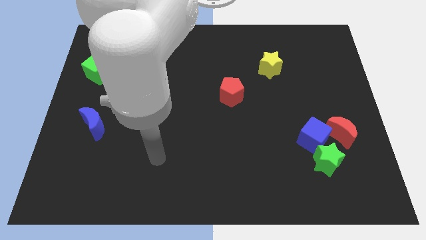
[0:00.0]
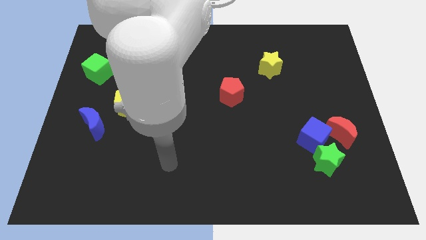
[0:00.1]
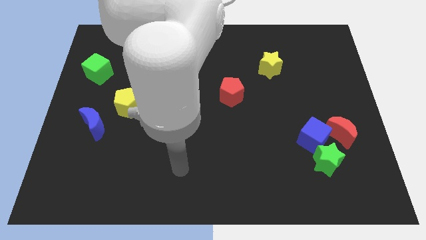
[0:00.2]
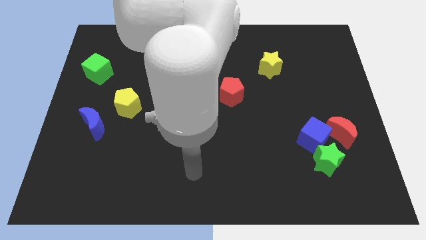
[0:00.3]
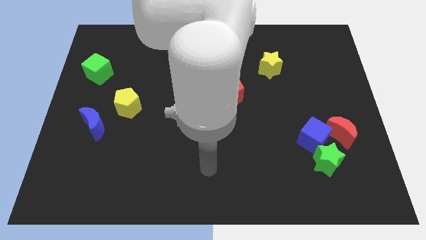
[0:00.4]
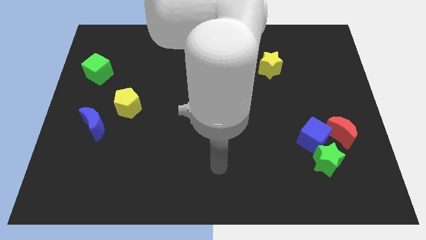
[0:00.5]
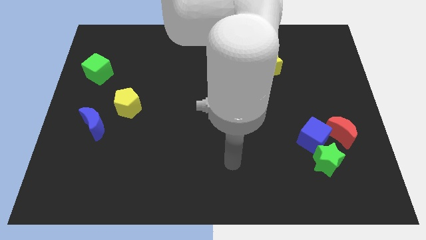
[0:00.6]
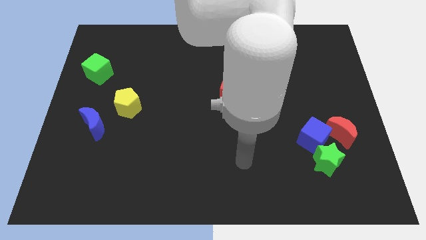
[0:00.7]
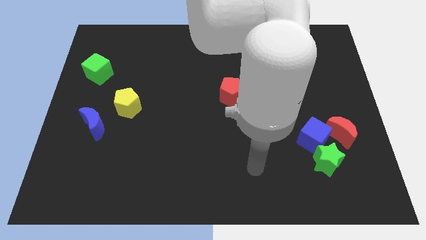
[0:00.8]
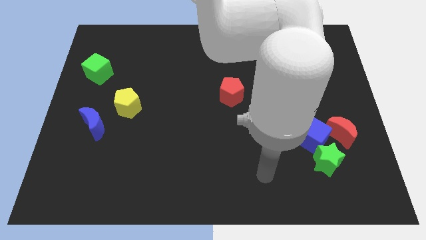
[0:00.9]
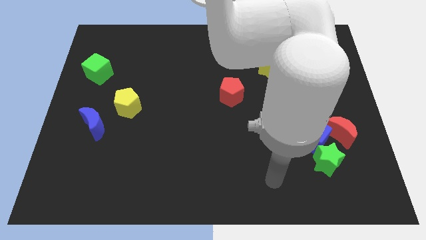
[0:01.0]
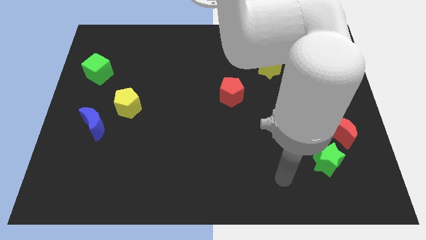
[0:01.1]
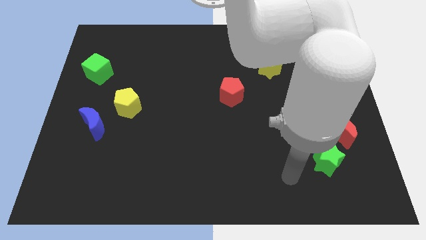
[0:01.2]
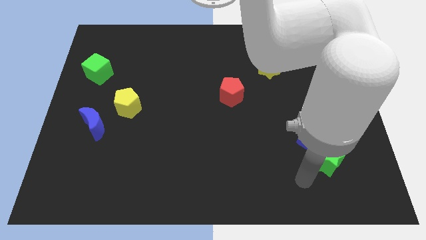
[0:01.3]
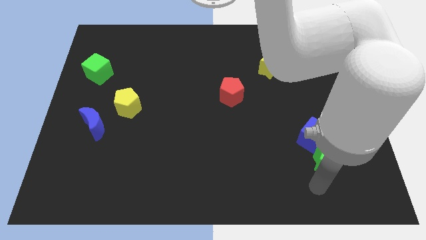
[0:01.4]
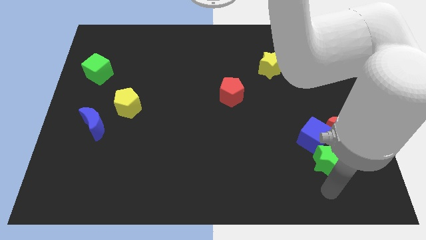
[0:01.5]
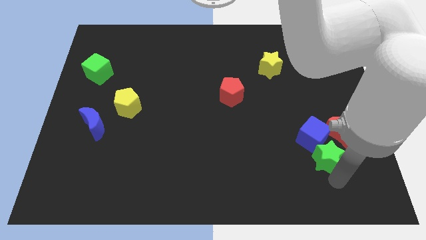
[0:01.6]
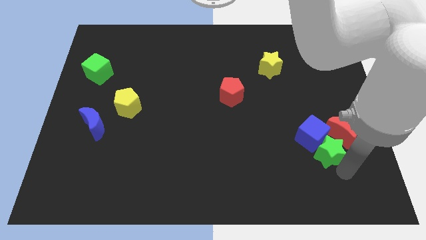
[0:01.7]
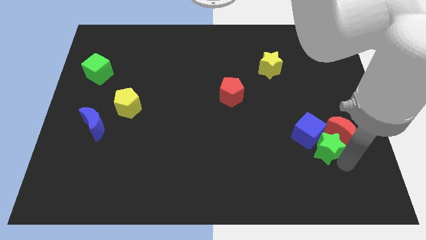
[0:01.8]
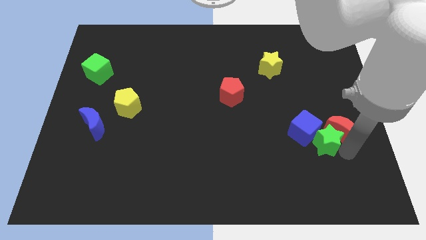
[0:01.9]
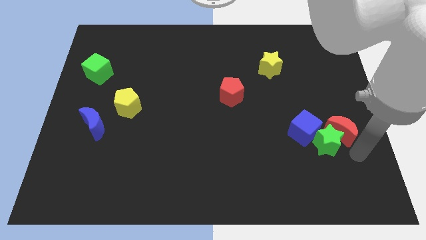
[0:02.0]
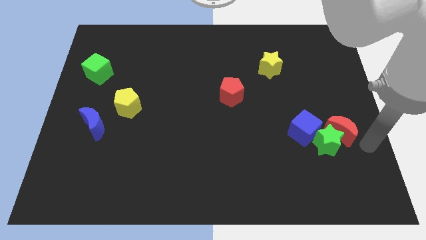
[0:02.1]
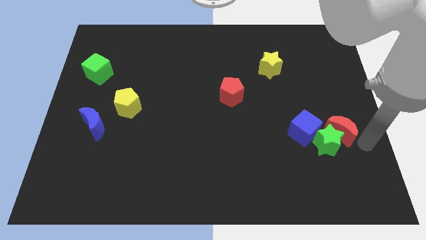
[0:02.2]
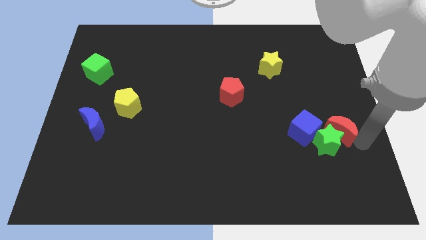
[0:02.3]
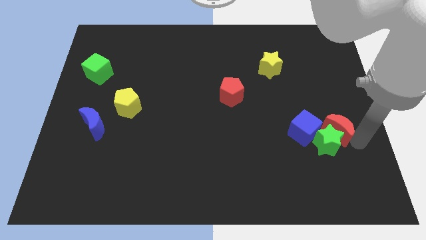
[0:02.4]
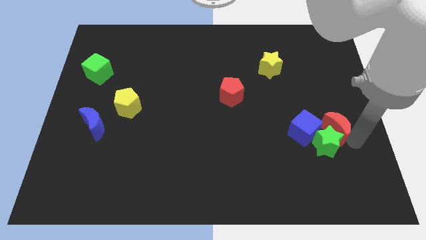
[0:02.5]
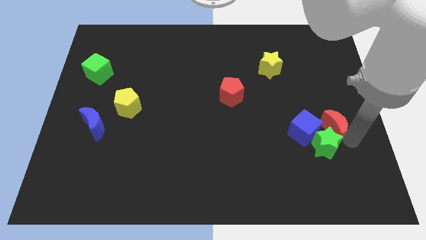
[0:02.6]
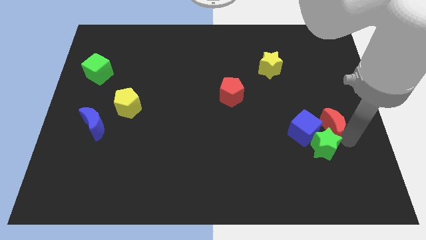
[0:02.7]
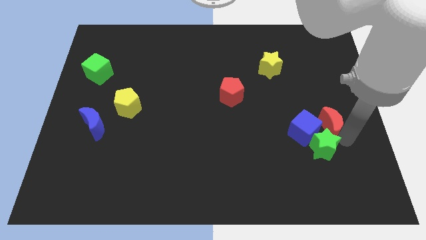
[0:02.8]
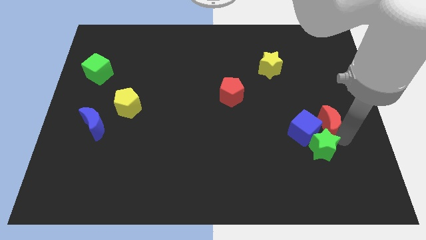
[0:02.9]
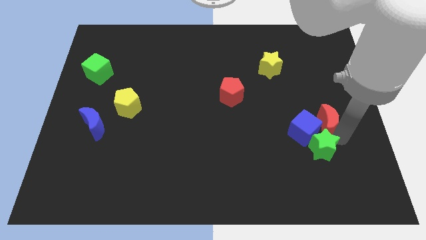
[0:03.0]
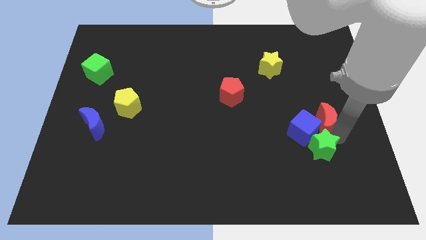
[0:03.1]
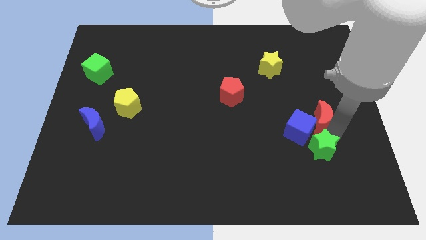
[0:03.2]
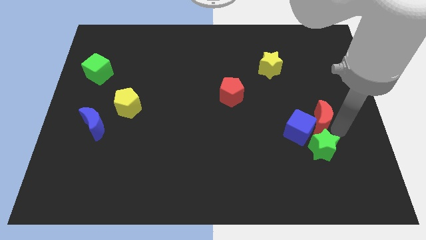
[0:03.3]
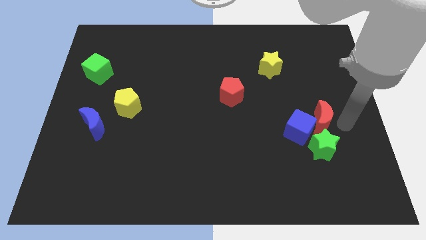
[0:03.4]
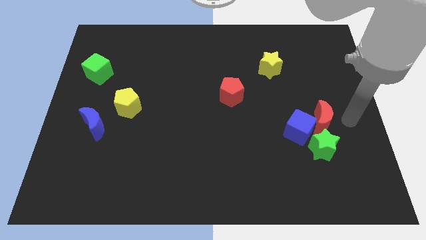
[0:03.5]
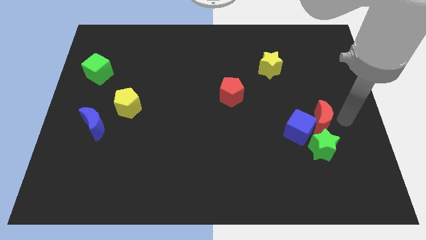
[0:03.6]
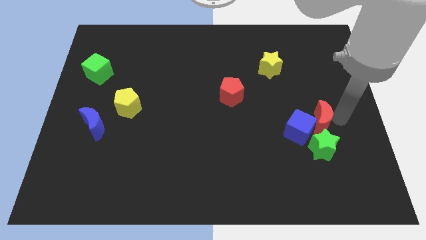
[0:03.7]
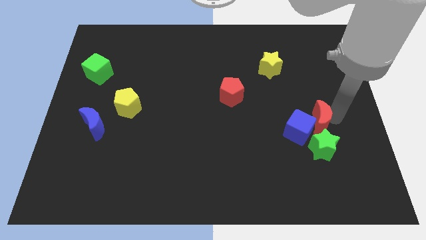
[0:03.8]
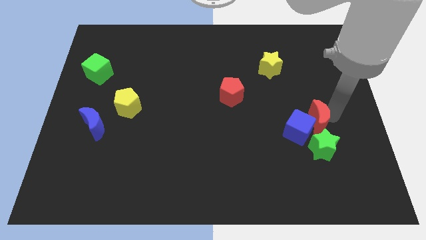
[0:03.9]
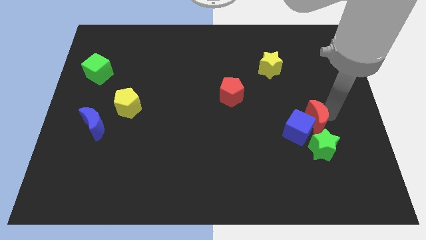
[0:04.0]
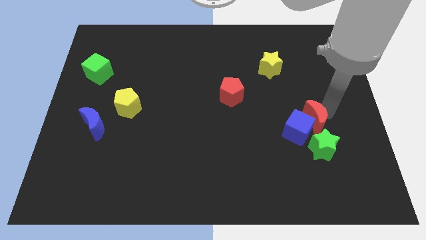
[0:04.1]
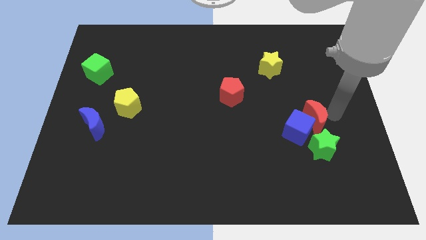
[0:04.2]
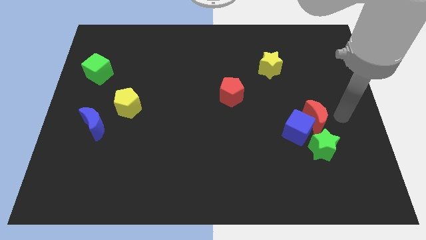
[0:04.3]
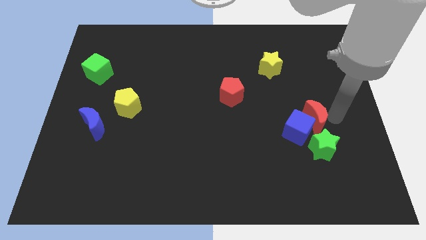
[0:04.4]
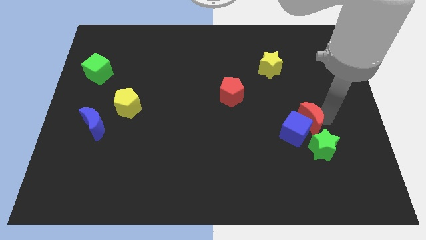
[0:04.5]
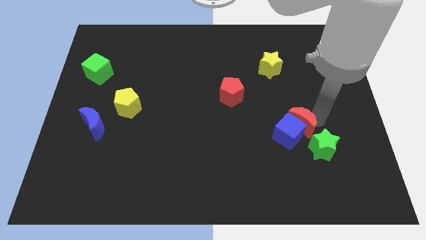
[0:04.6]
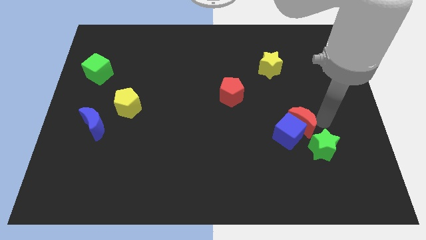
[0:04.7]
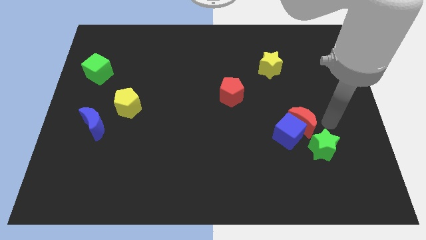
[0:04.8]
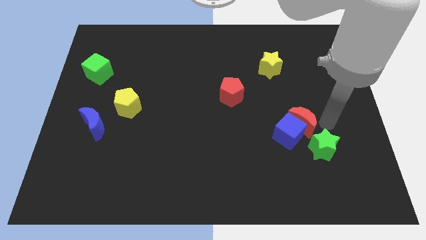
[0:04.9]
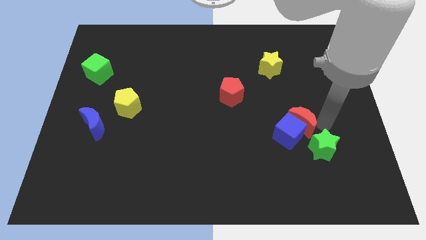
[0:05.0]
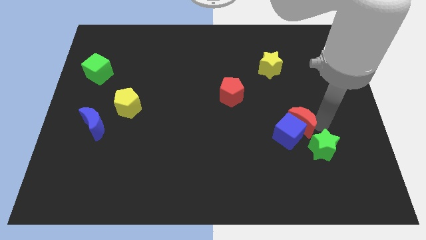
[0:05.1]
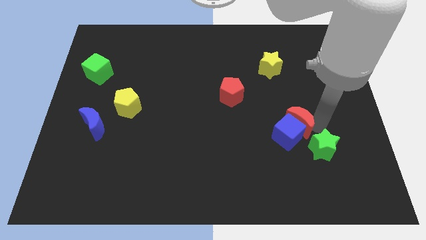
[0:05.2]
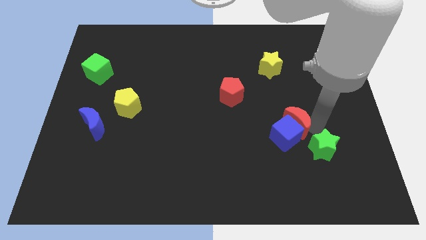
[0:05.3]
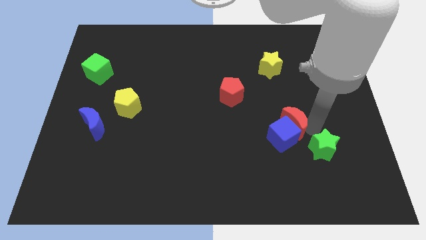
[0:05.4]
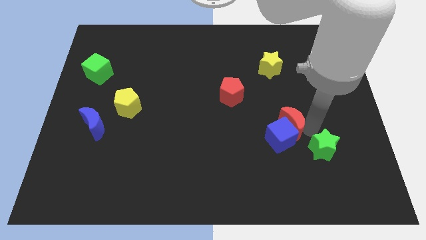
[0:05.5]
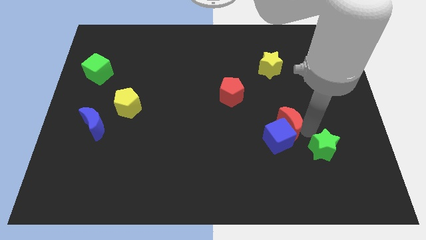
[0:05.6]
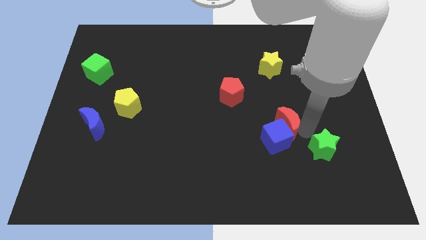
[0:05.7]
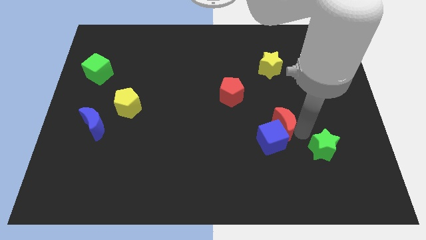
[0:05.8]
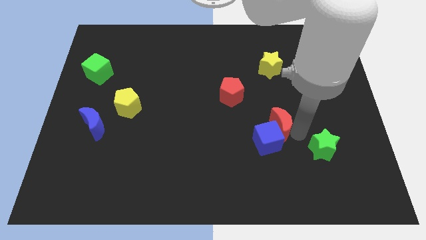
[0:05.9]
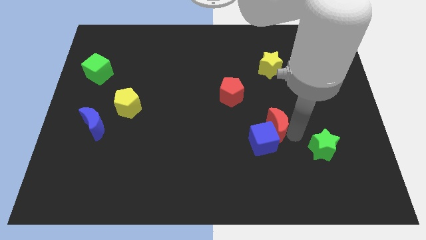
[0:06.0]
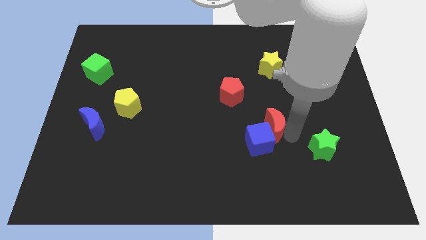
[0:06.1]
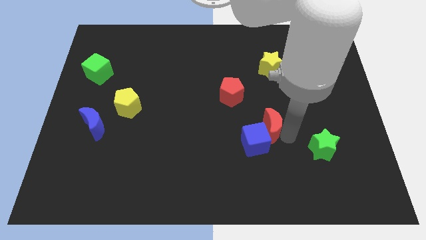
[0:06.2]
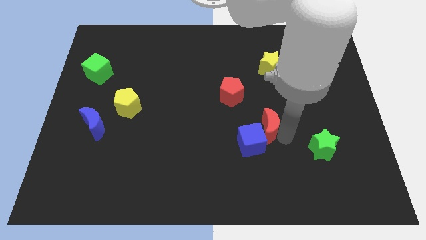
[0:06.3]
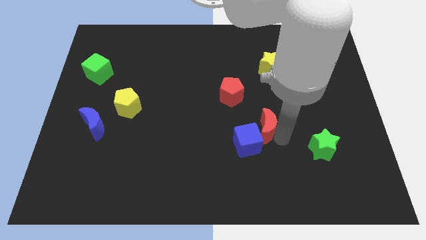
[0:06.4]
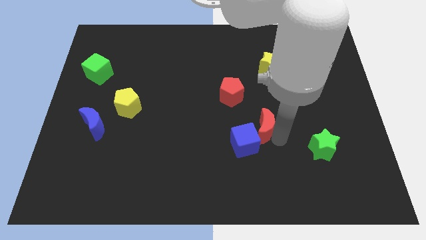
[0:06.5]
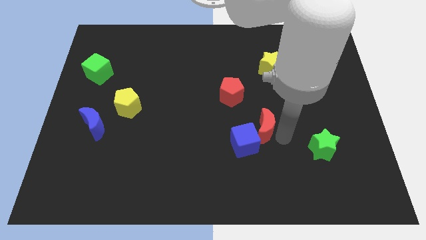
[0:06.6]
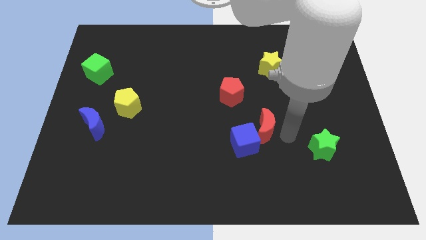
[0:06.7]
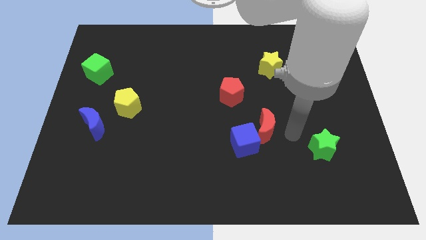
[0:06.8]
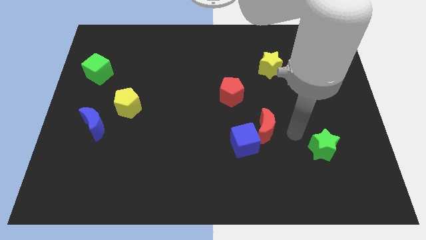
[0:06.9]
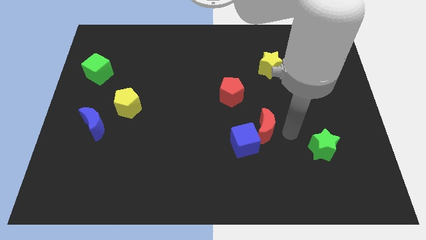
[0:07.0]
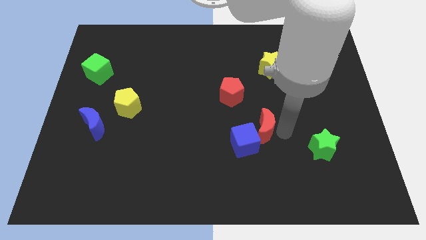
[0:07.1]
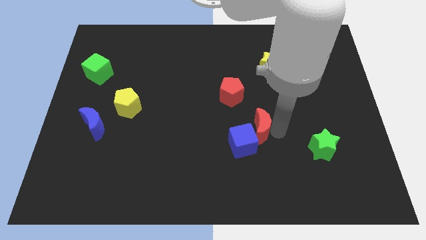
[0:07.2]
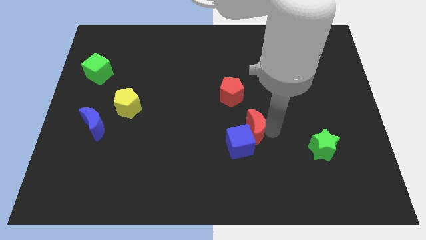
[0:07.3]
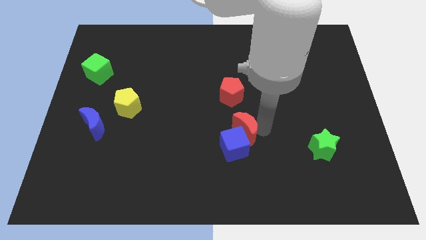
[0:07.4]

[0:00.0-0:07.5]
move the red moon to the left

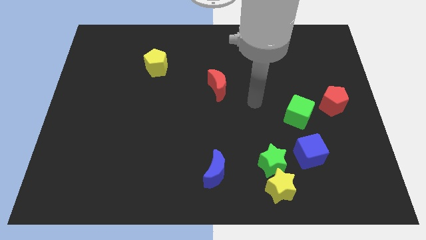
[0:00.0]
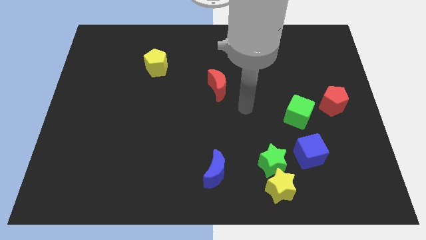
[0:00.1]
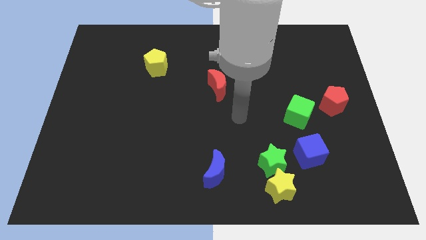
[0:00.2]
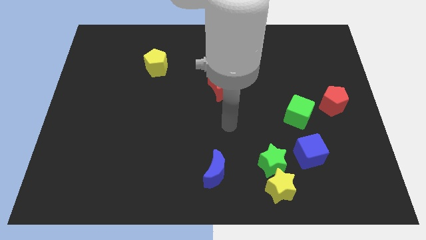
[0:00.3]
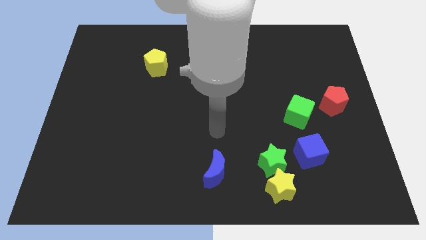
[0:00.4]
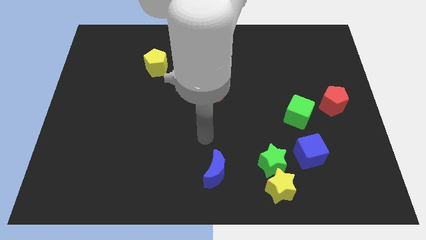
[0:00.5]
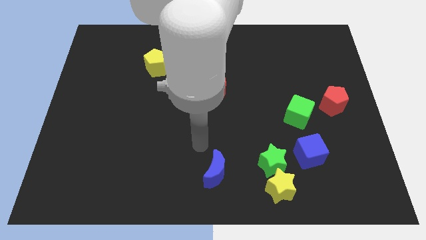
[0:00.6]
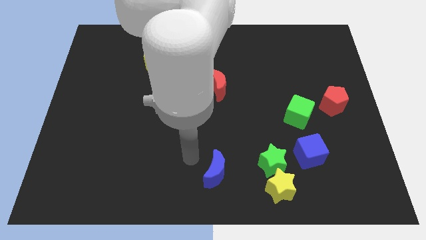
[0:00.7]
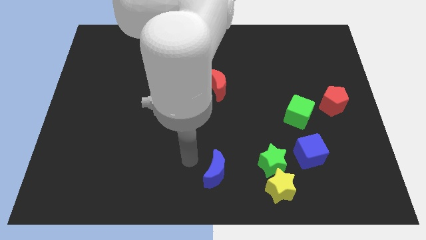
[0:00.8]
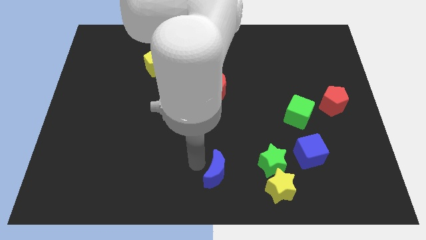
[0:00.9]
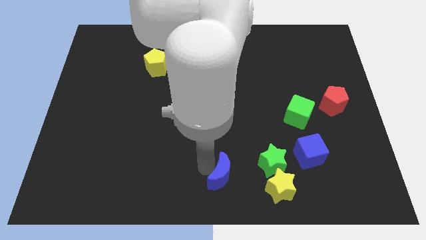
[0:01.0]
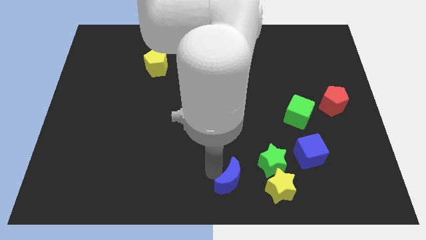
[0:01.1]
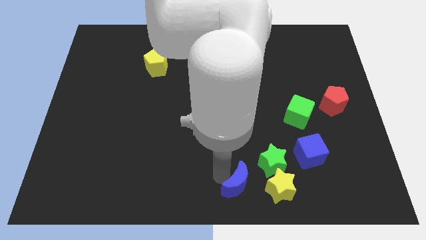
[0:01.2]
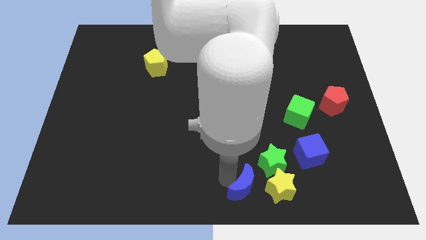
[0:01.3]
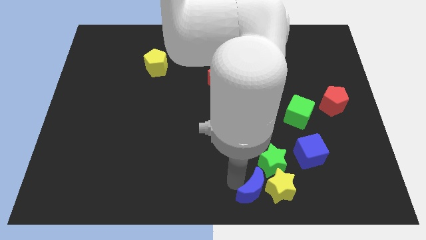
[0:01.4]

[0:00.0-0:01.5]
slightly move the blue moon right
